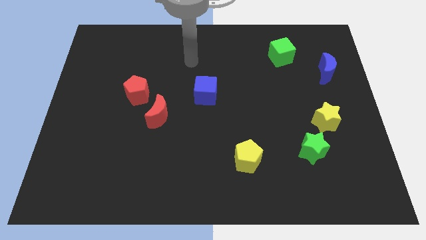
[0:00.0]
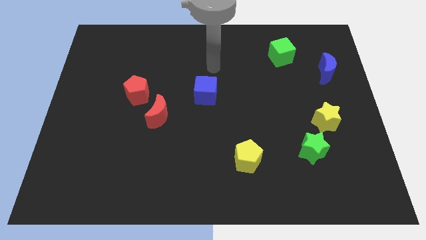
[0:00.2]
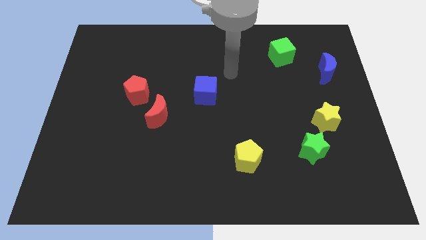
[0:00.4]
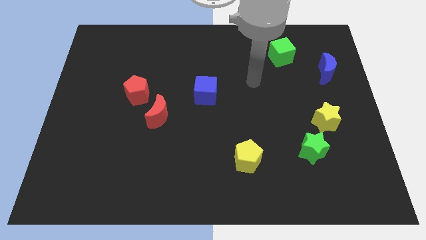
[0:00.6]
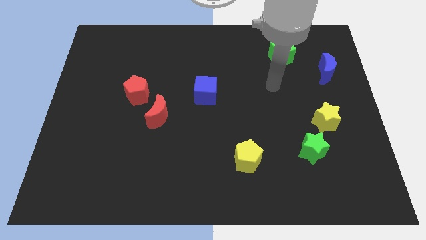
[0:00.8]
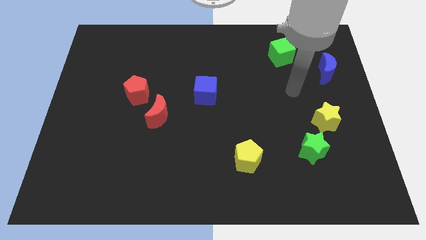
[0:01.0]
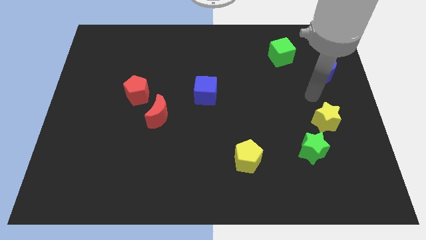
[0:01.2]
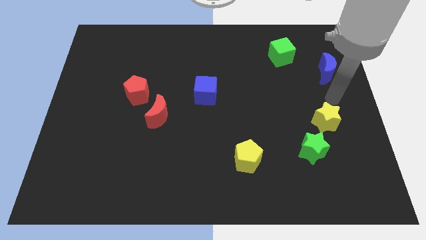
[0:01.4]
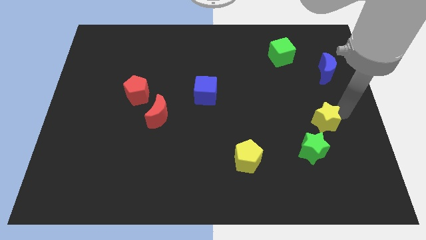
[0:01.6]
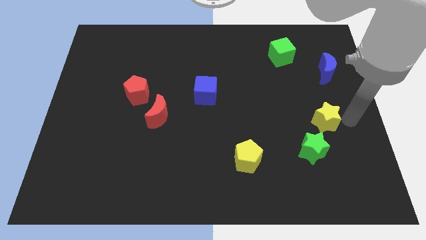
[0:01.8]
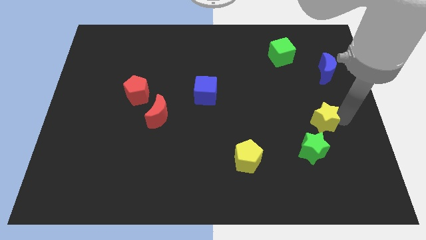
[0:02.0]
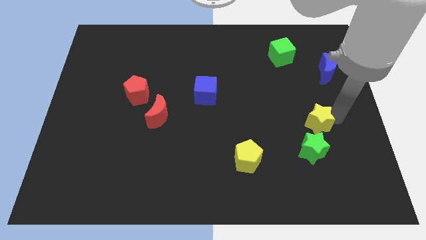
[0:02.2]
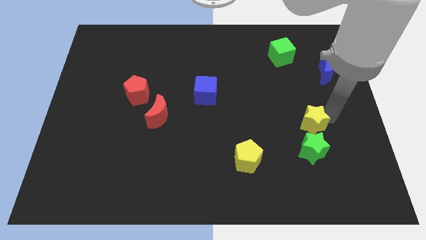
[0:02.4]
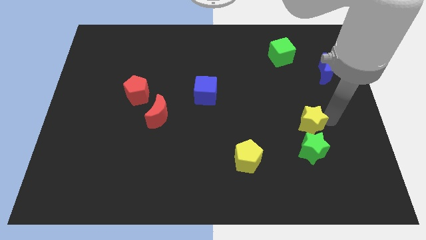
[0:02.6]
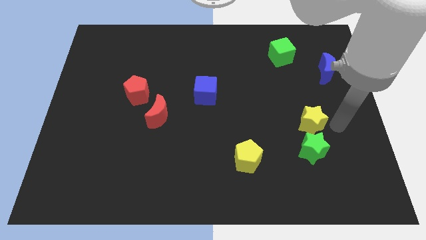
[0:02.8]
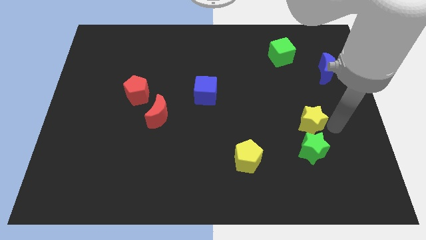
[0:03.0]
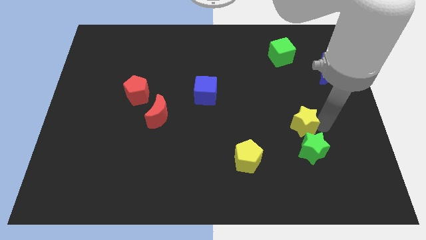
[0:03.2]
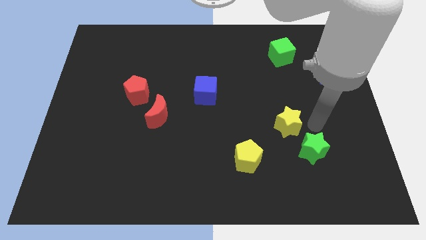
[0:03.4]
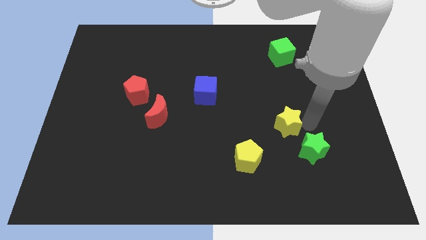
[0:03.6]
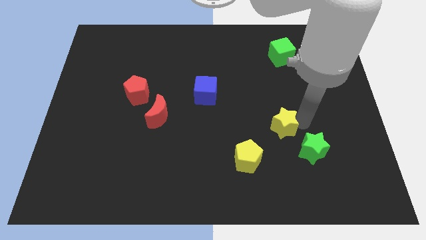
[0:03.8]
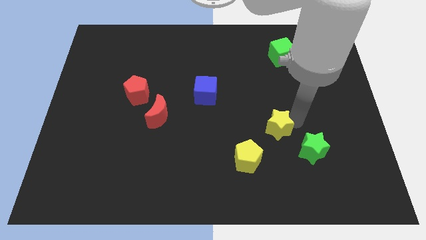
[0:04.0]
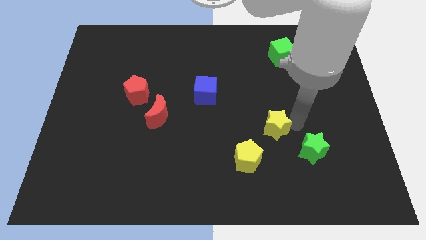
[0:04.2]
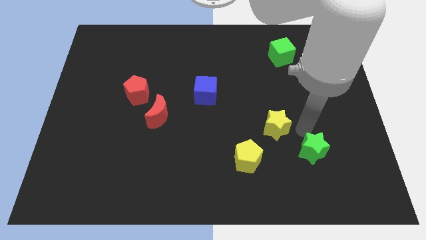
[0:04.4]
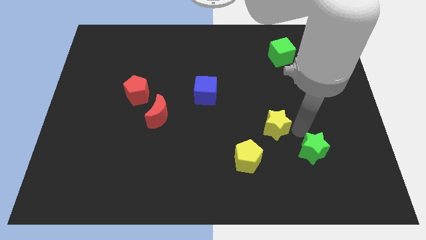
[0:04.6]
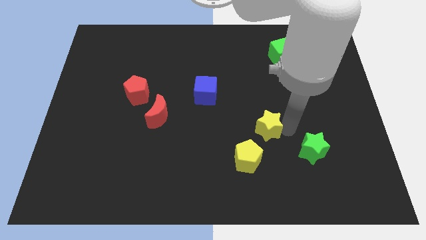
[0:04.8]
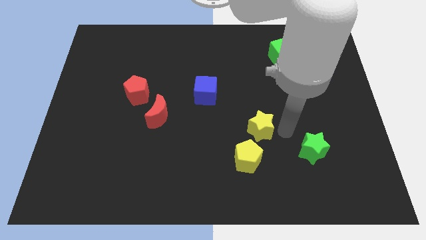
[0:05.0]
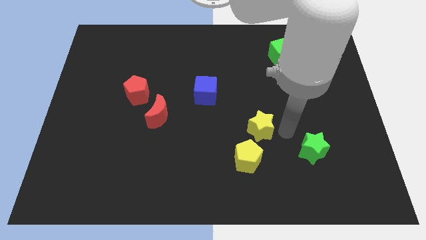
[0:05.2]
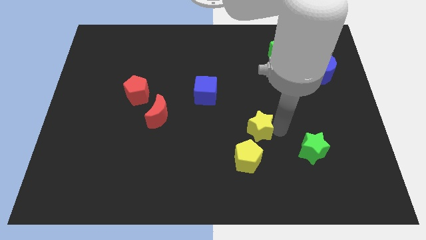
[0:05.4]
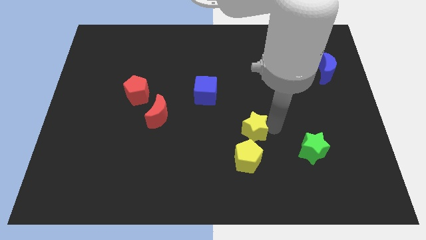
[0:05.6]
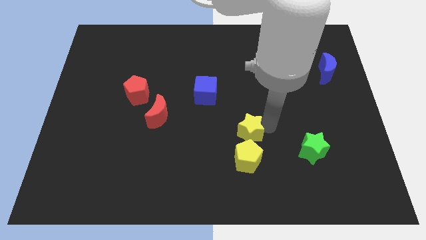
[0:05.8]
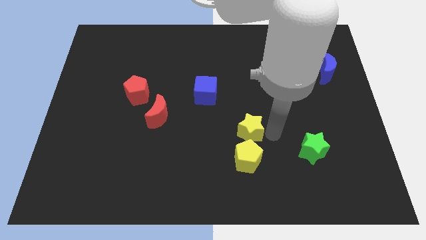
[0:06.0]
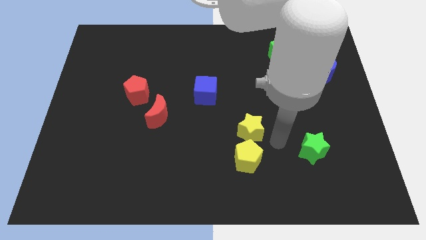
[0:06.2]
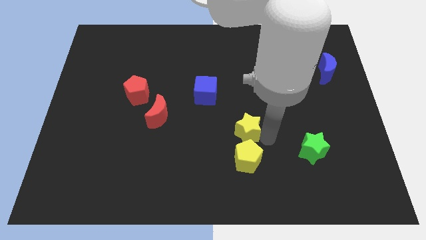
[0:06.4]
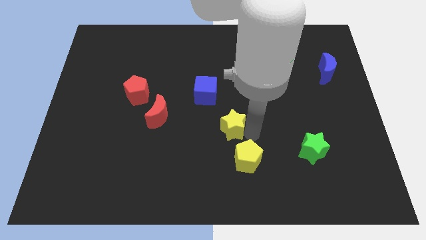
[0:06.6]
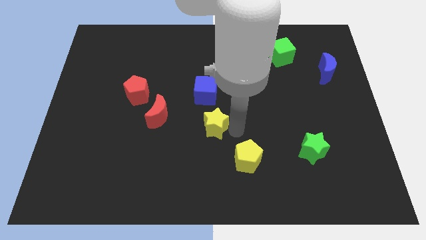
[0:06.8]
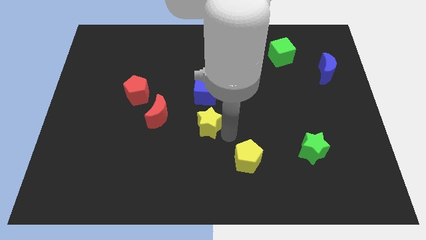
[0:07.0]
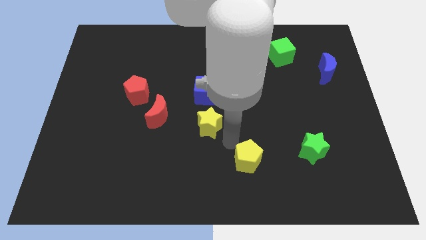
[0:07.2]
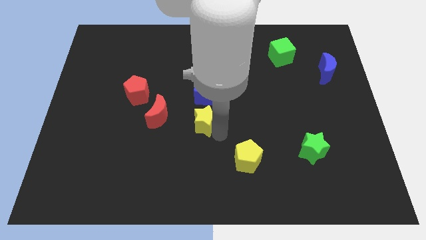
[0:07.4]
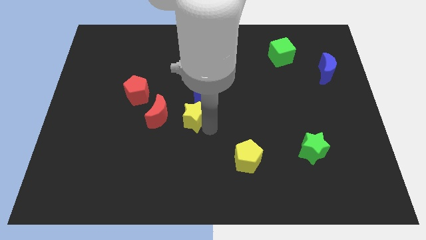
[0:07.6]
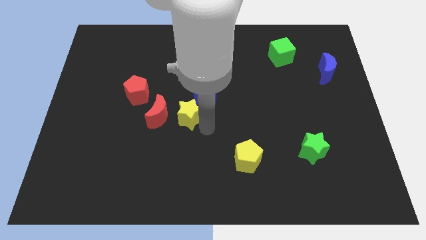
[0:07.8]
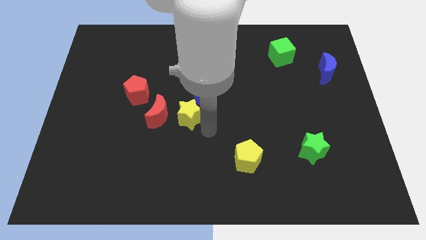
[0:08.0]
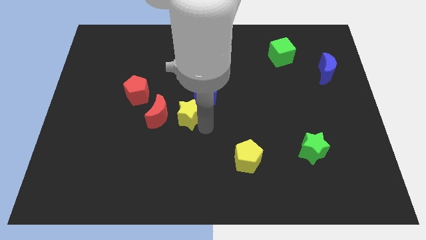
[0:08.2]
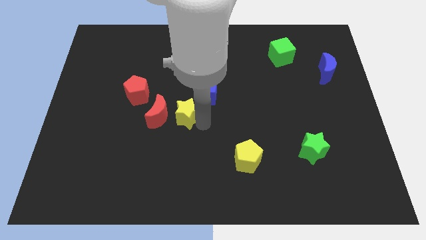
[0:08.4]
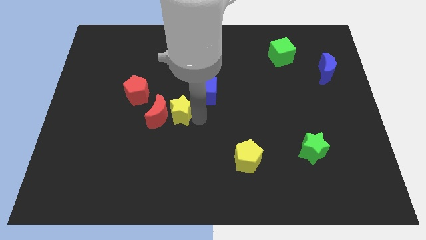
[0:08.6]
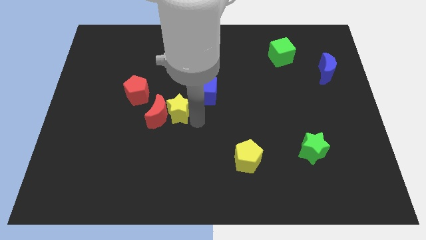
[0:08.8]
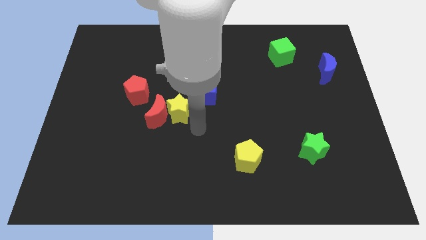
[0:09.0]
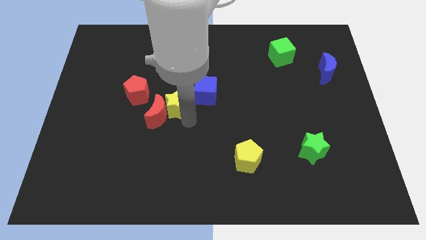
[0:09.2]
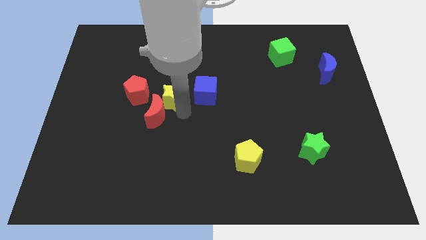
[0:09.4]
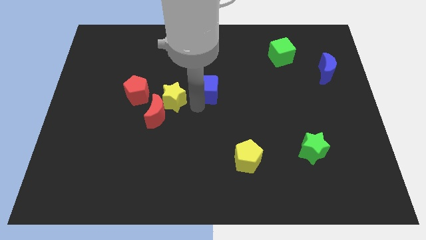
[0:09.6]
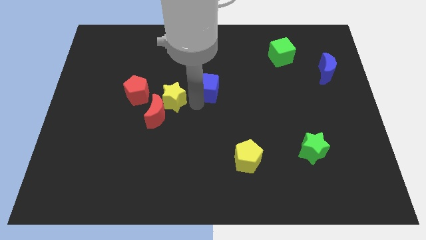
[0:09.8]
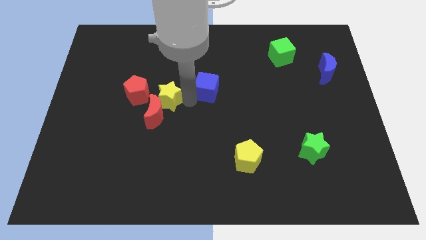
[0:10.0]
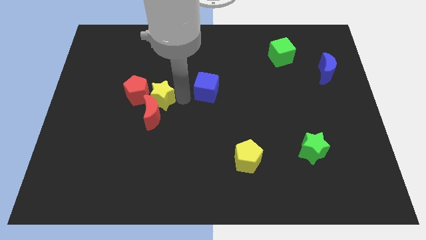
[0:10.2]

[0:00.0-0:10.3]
put the yellow star next to the red pentagon

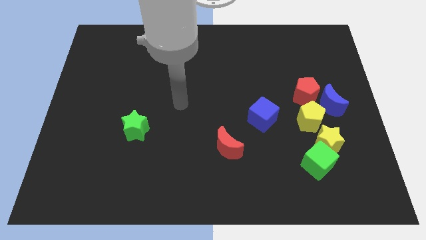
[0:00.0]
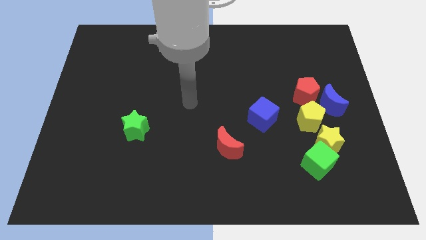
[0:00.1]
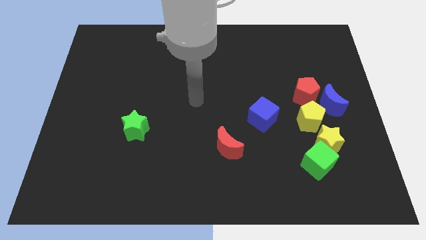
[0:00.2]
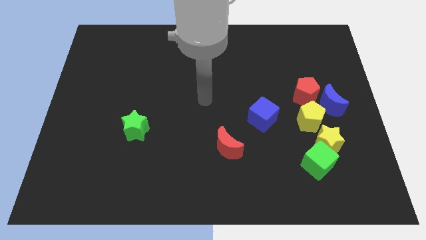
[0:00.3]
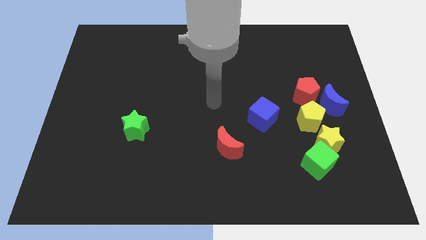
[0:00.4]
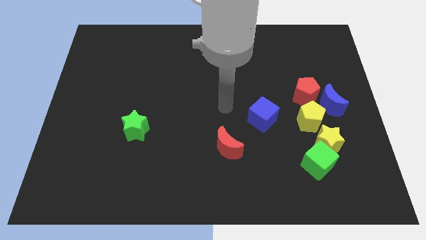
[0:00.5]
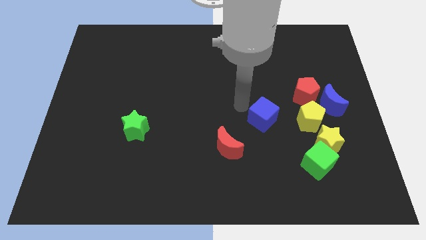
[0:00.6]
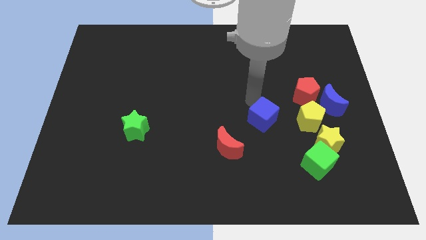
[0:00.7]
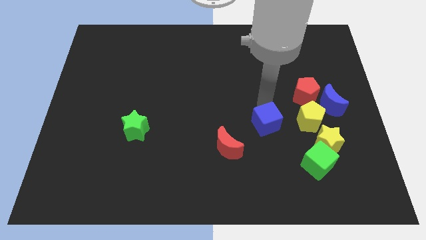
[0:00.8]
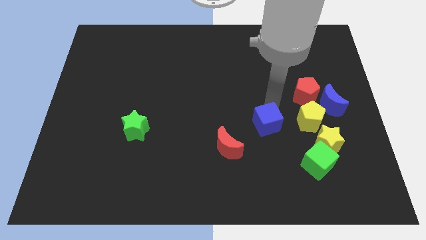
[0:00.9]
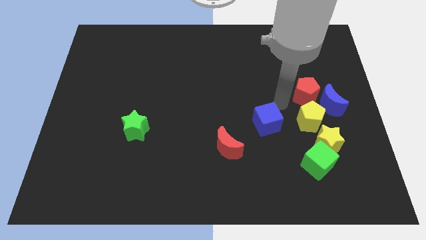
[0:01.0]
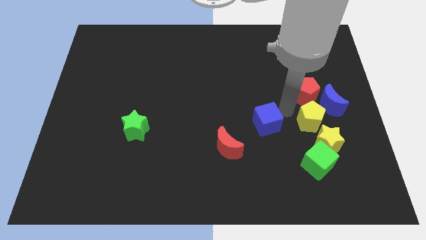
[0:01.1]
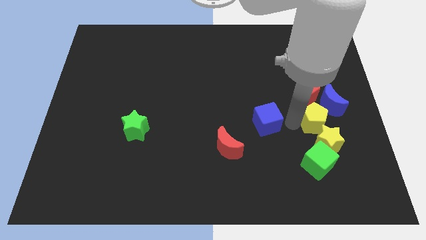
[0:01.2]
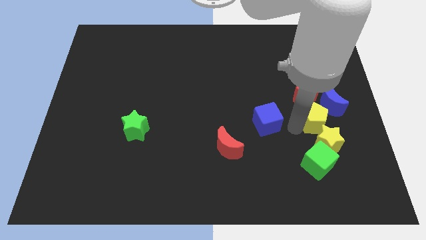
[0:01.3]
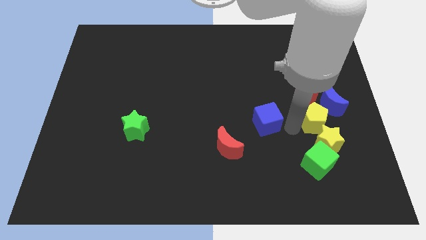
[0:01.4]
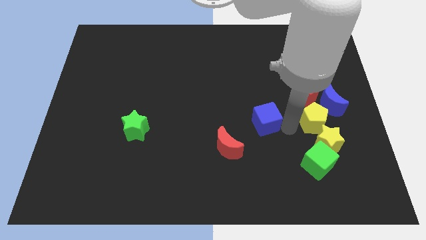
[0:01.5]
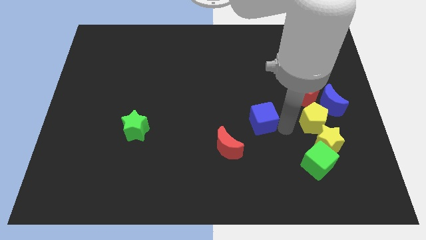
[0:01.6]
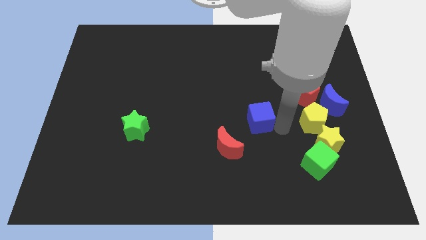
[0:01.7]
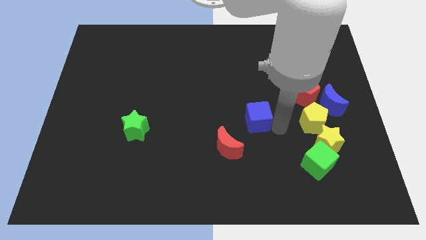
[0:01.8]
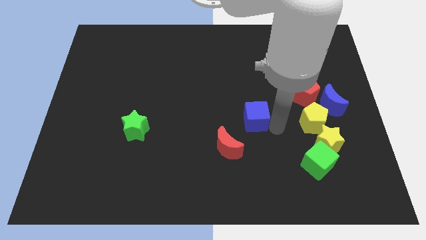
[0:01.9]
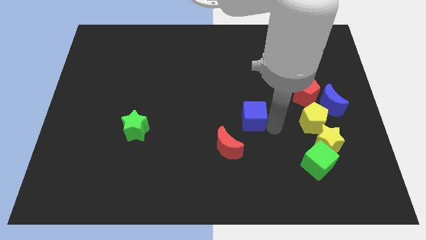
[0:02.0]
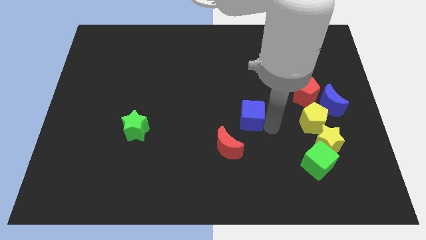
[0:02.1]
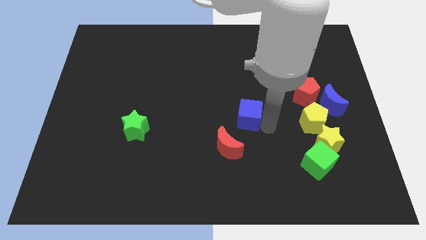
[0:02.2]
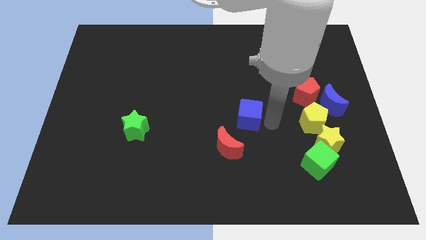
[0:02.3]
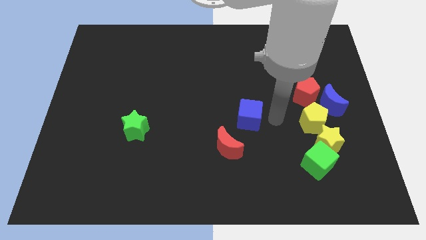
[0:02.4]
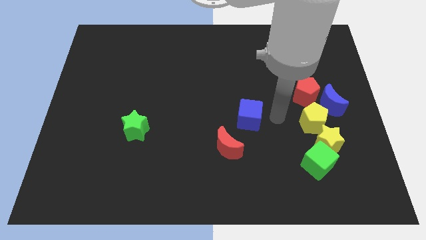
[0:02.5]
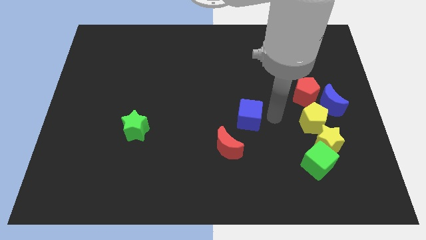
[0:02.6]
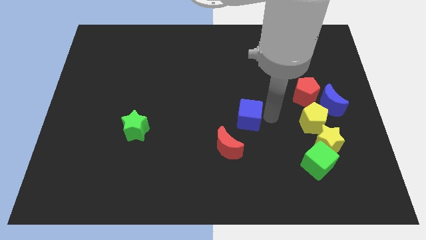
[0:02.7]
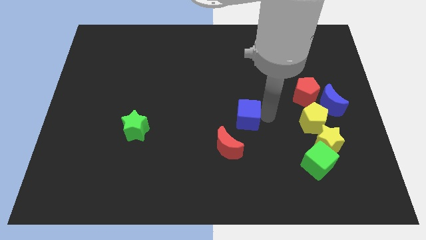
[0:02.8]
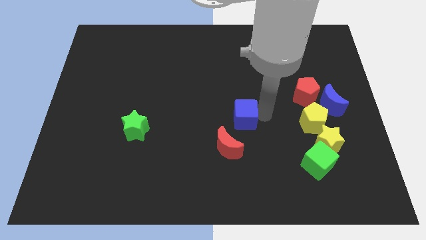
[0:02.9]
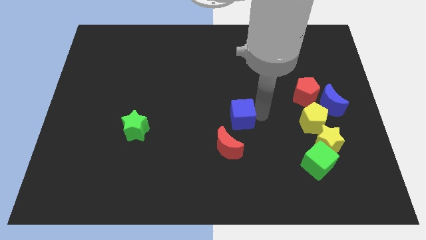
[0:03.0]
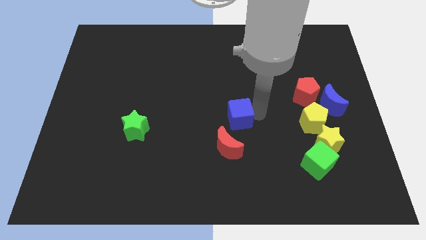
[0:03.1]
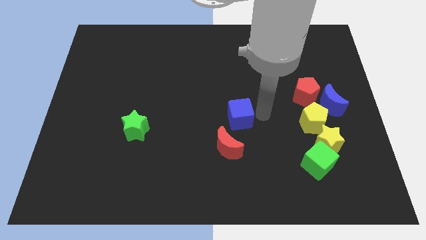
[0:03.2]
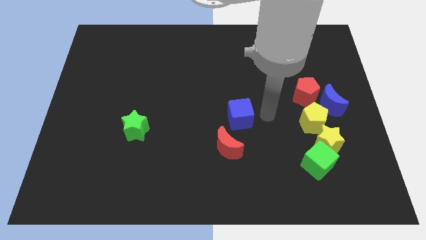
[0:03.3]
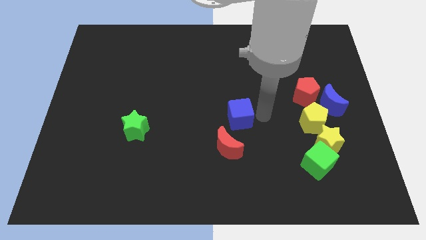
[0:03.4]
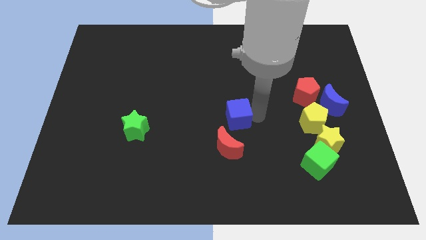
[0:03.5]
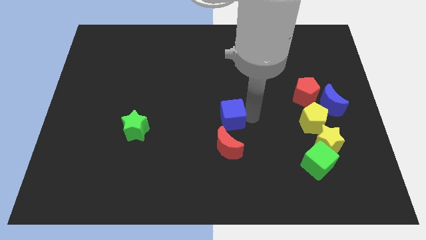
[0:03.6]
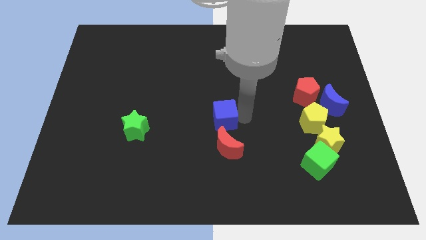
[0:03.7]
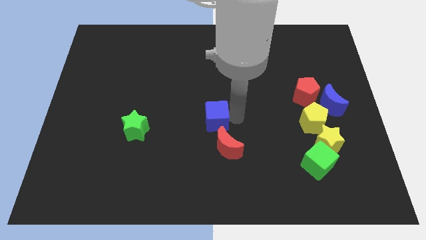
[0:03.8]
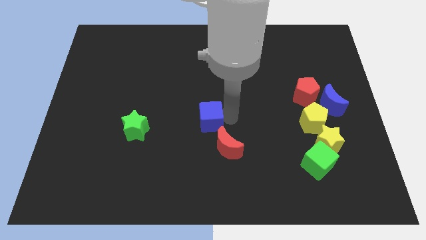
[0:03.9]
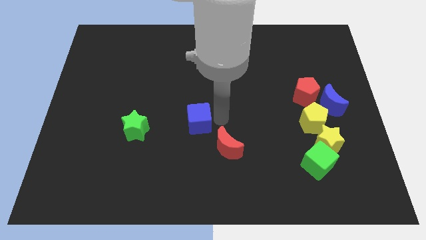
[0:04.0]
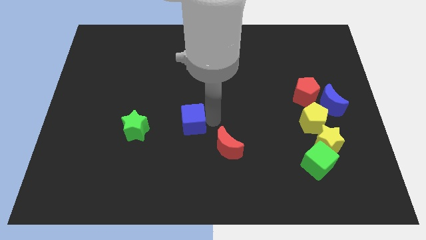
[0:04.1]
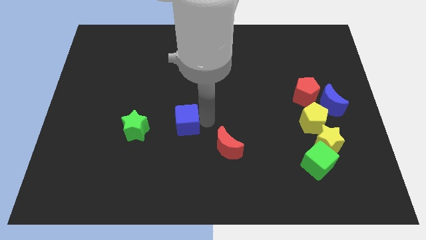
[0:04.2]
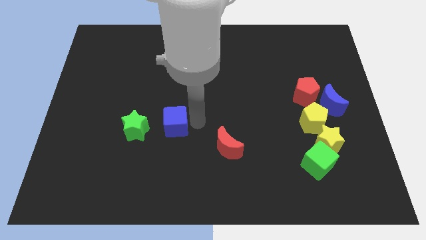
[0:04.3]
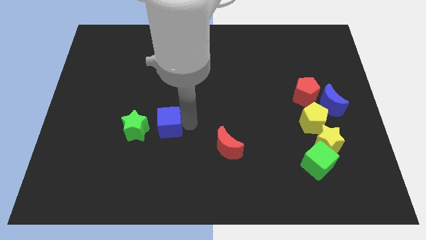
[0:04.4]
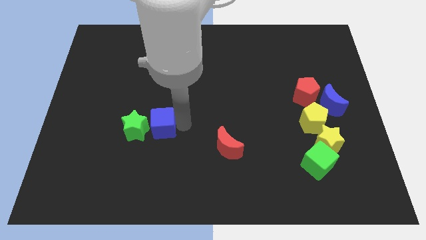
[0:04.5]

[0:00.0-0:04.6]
push the blue cube to the green star
